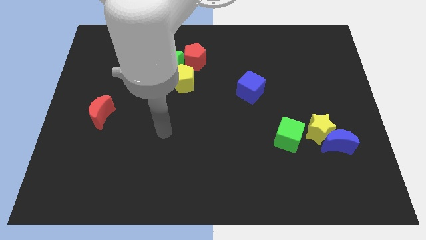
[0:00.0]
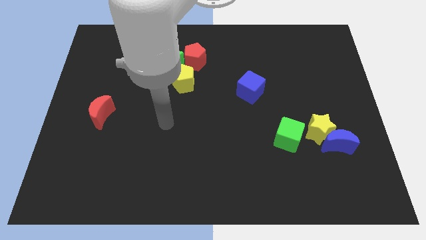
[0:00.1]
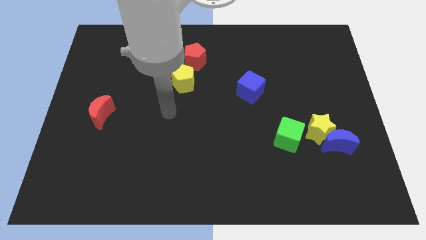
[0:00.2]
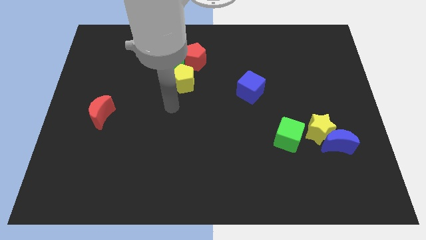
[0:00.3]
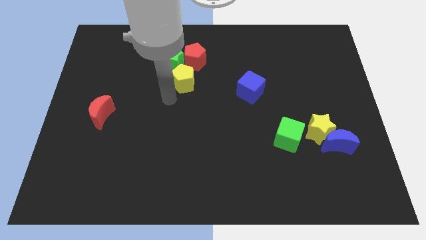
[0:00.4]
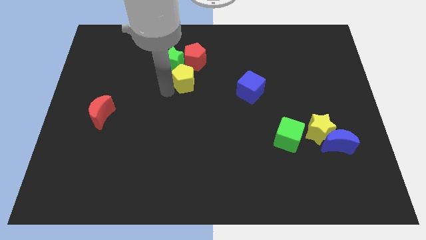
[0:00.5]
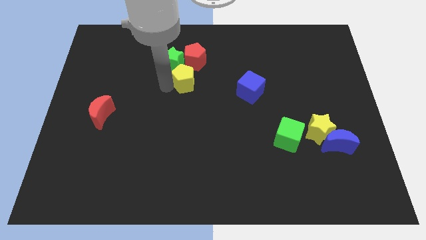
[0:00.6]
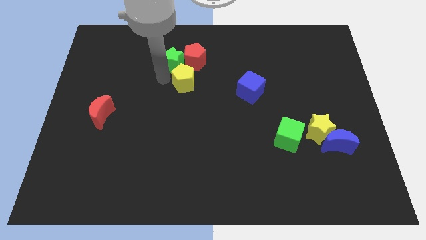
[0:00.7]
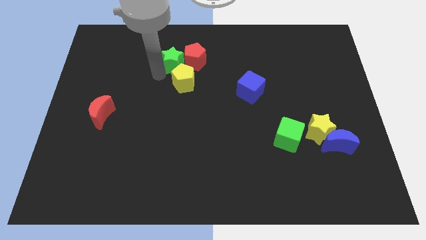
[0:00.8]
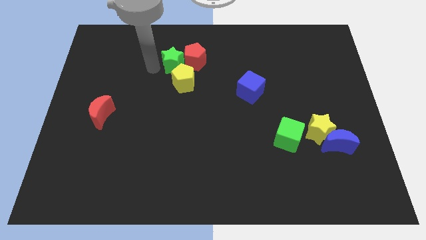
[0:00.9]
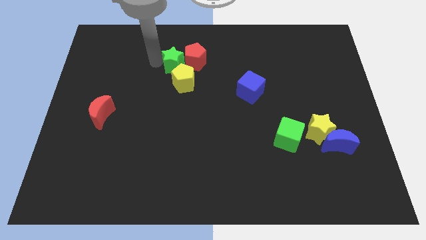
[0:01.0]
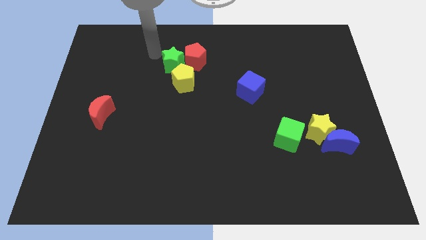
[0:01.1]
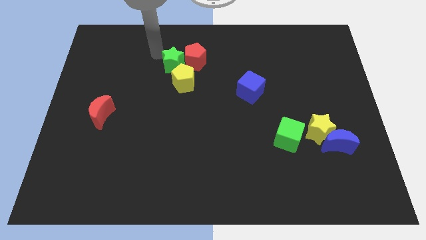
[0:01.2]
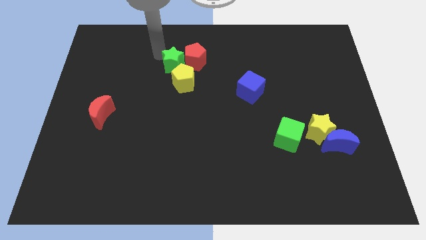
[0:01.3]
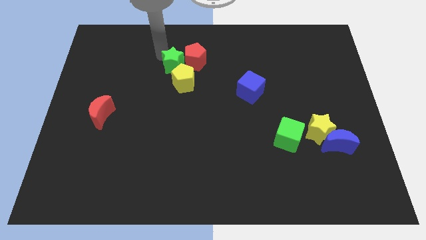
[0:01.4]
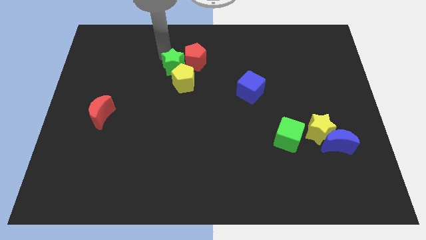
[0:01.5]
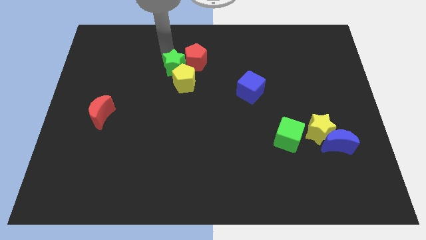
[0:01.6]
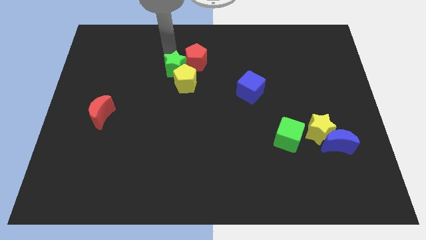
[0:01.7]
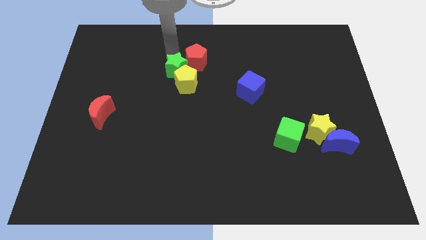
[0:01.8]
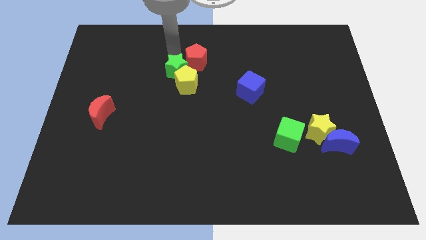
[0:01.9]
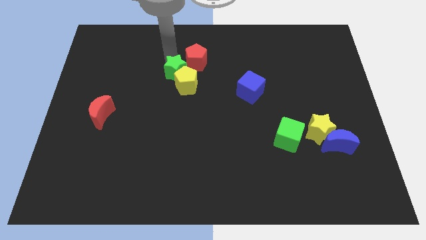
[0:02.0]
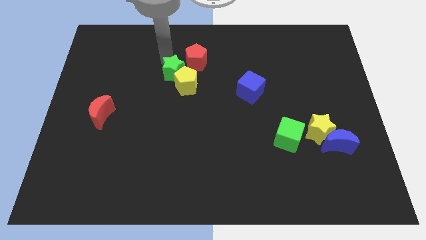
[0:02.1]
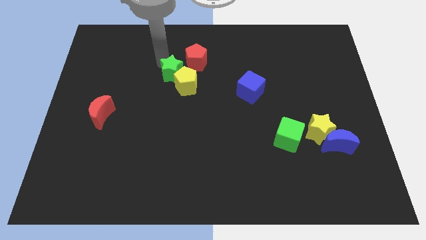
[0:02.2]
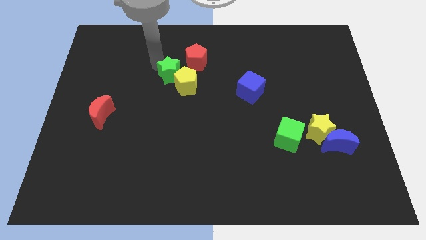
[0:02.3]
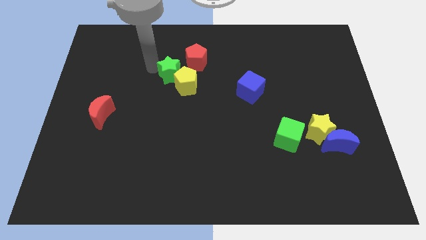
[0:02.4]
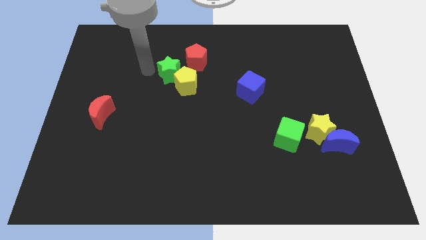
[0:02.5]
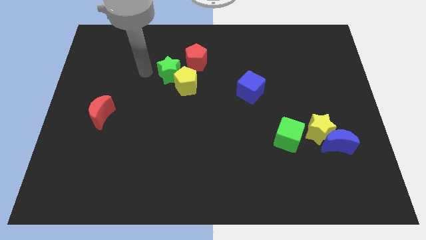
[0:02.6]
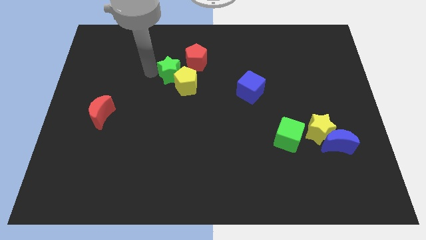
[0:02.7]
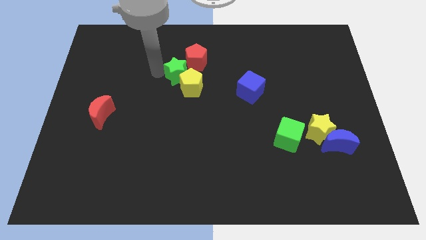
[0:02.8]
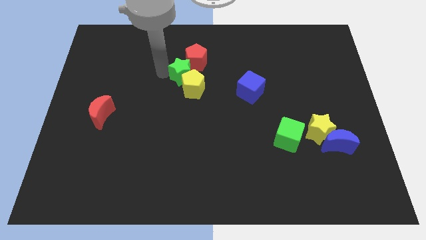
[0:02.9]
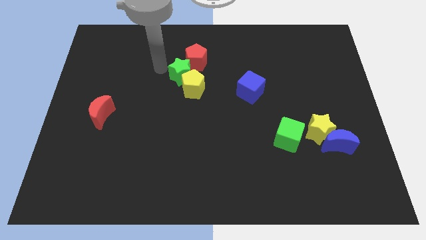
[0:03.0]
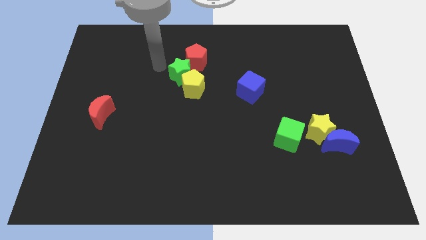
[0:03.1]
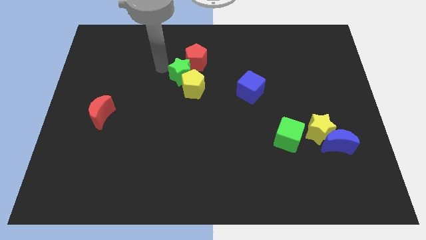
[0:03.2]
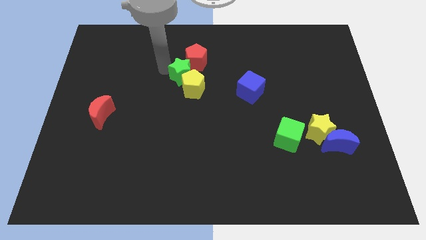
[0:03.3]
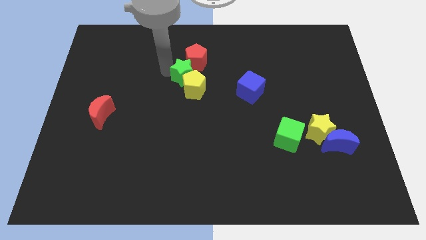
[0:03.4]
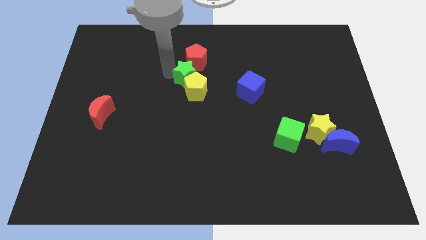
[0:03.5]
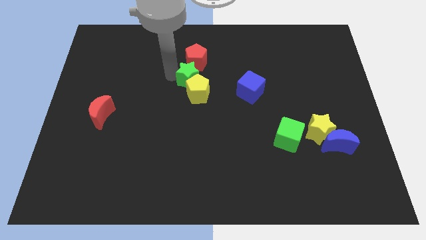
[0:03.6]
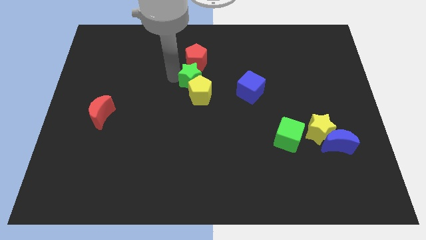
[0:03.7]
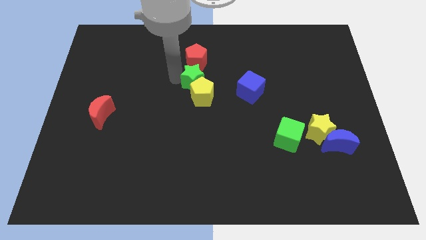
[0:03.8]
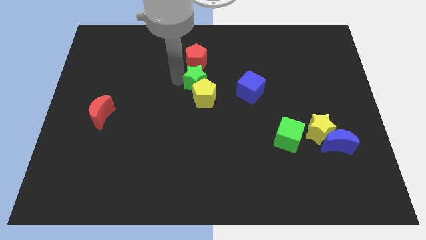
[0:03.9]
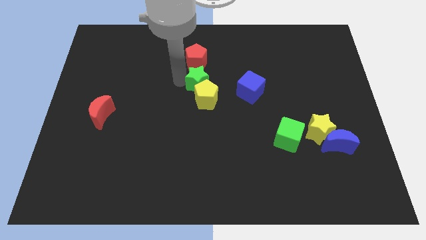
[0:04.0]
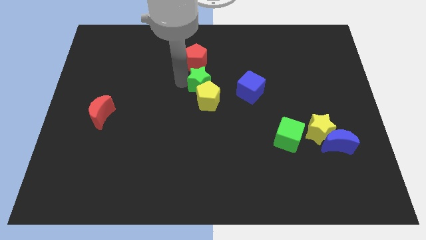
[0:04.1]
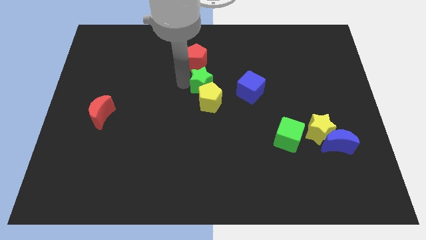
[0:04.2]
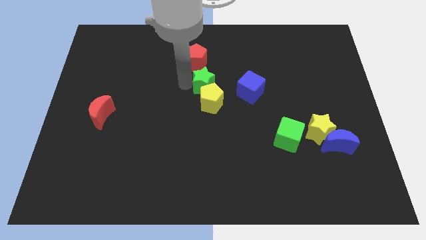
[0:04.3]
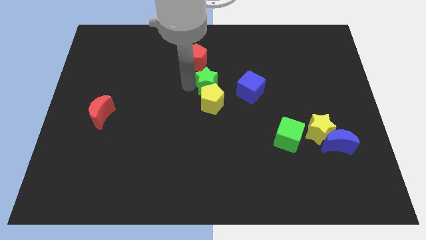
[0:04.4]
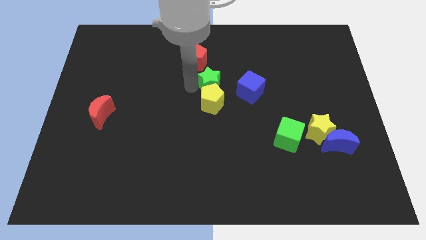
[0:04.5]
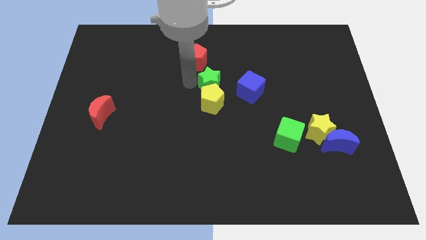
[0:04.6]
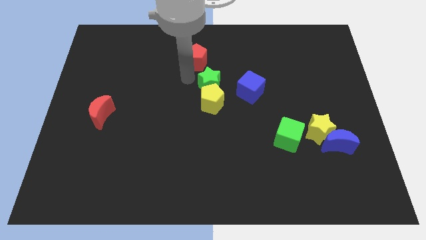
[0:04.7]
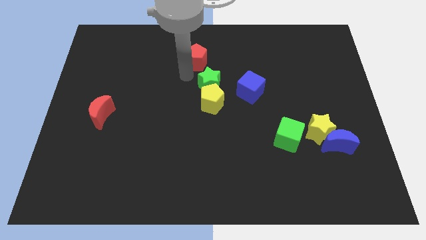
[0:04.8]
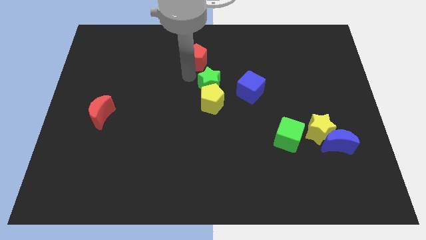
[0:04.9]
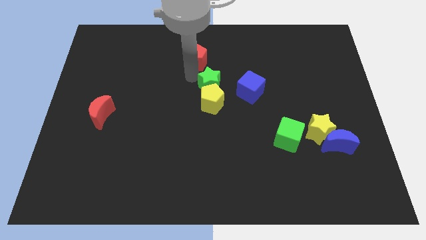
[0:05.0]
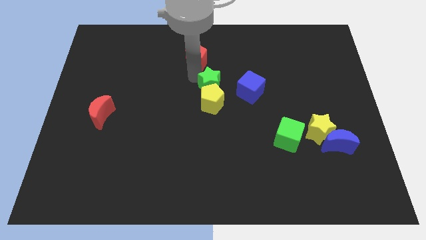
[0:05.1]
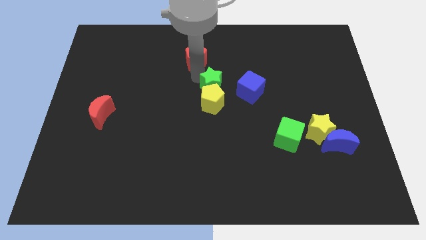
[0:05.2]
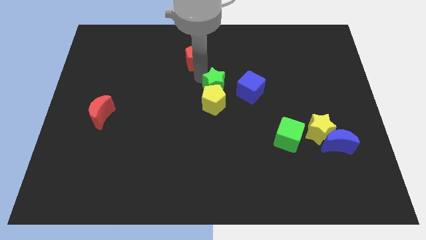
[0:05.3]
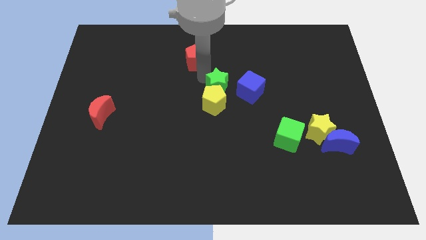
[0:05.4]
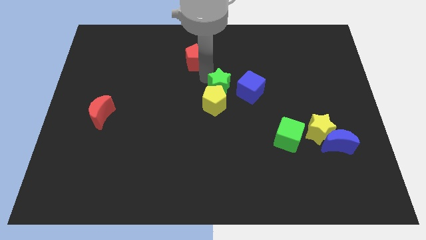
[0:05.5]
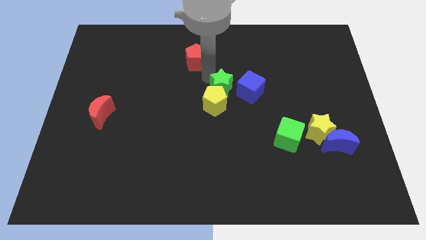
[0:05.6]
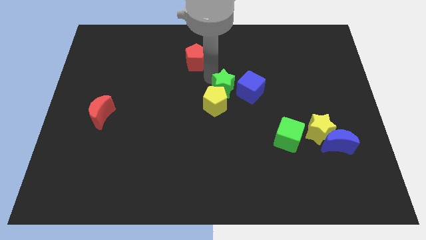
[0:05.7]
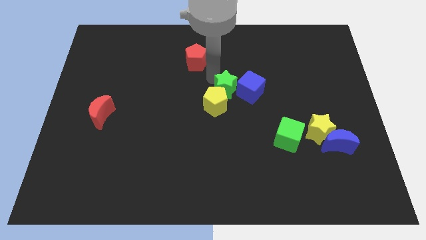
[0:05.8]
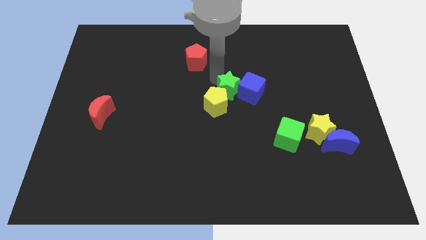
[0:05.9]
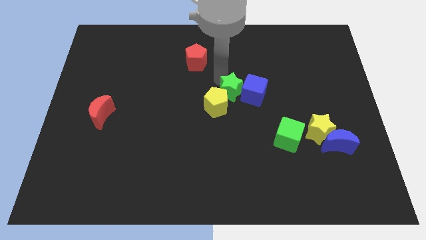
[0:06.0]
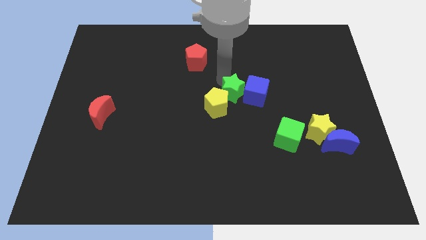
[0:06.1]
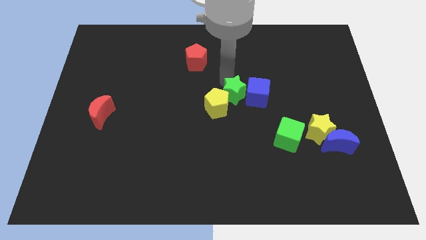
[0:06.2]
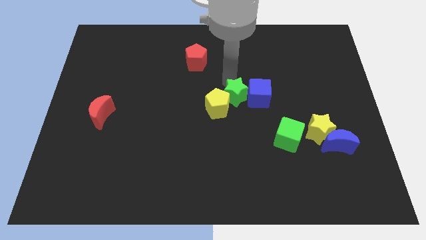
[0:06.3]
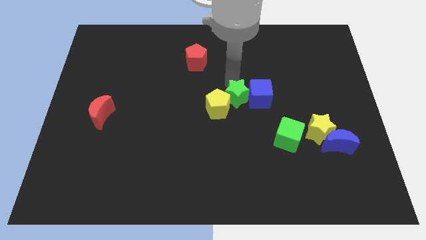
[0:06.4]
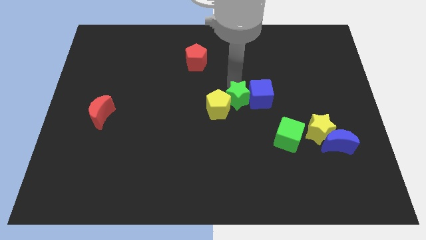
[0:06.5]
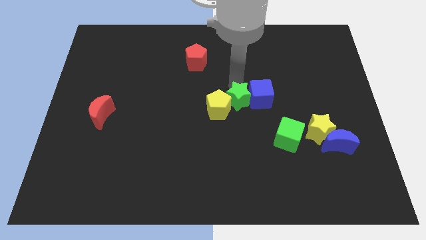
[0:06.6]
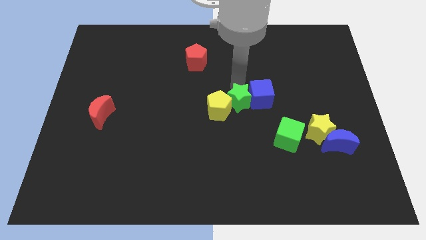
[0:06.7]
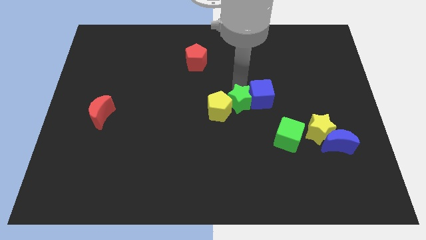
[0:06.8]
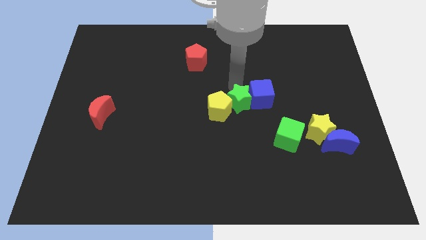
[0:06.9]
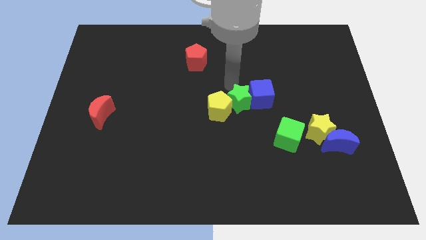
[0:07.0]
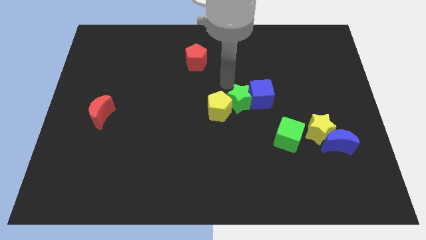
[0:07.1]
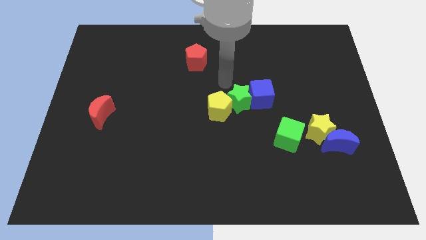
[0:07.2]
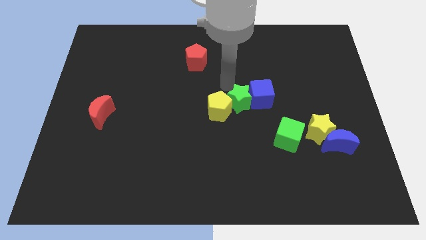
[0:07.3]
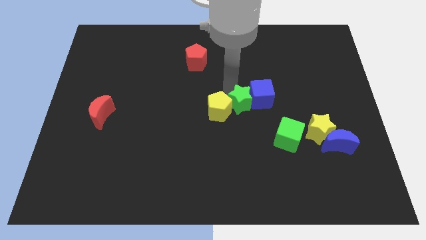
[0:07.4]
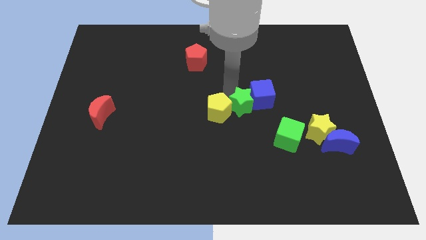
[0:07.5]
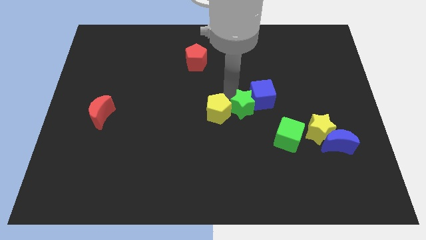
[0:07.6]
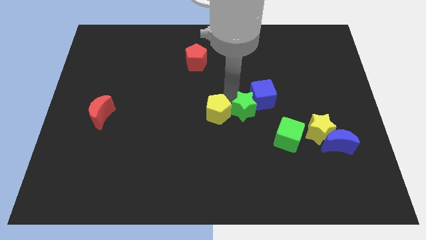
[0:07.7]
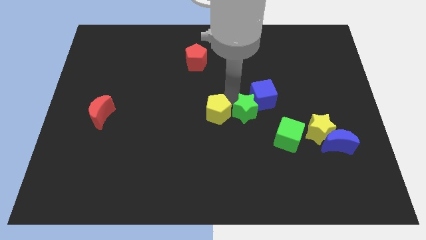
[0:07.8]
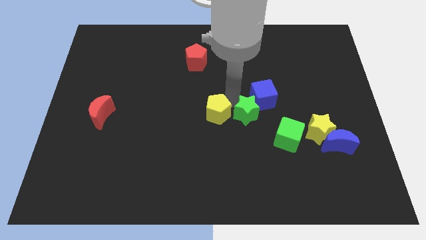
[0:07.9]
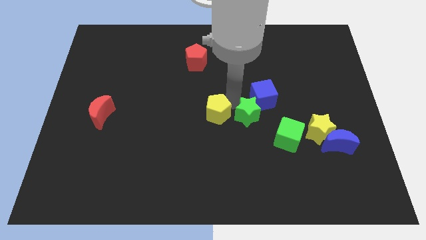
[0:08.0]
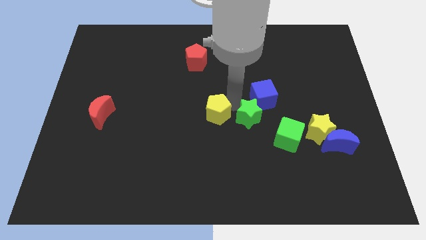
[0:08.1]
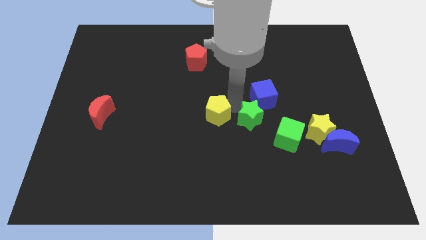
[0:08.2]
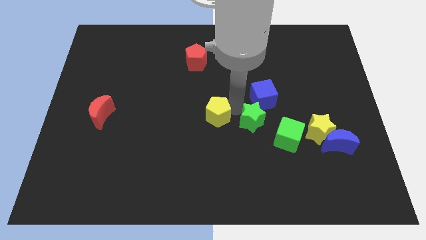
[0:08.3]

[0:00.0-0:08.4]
push the green star to the left of the yellow star
